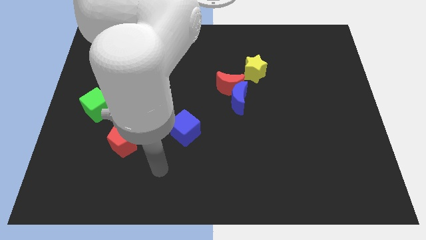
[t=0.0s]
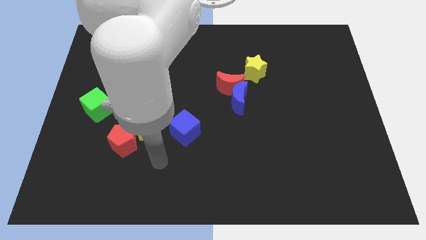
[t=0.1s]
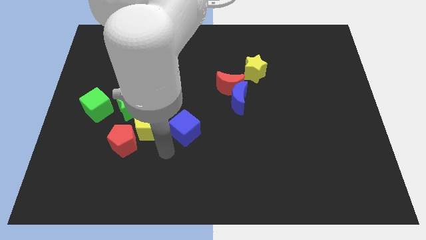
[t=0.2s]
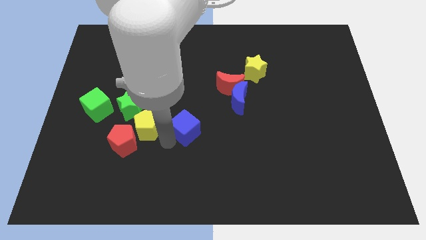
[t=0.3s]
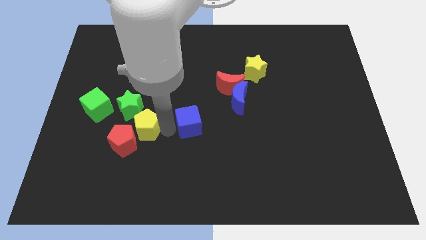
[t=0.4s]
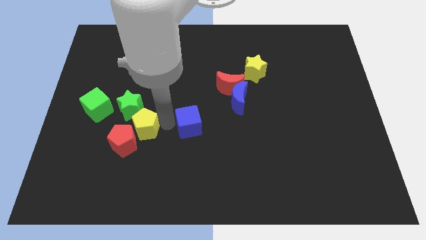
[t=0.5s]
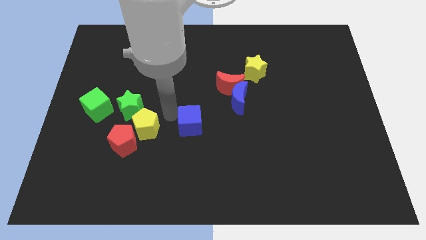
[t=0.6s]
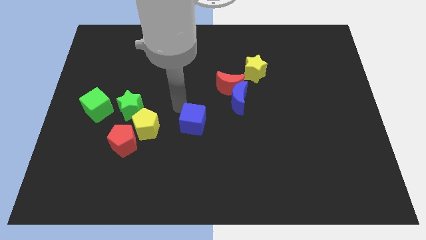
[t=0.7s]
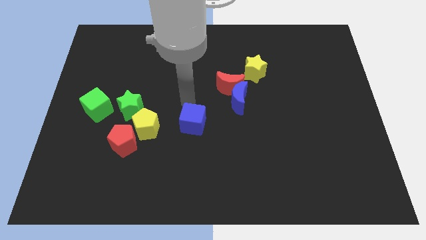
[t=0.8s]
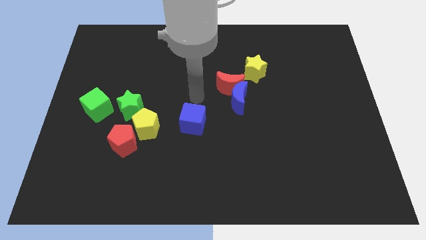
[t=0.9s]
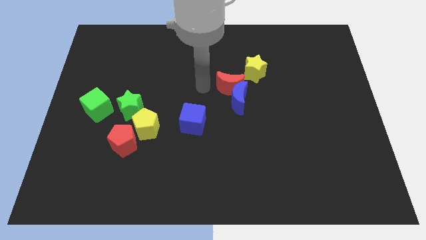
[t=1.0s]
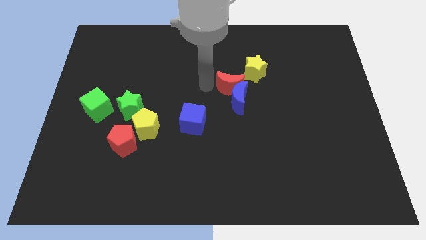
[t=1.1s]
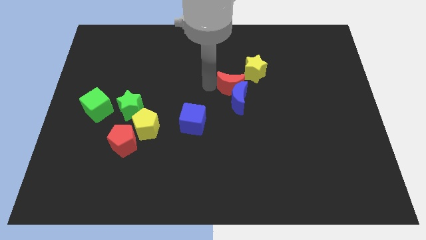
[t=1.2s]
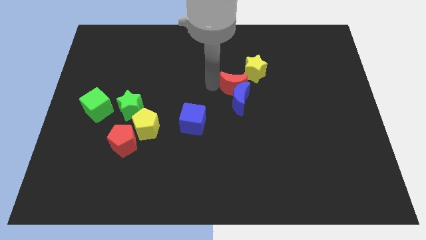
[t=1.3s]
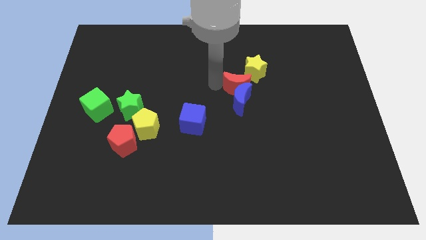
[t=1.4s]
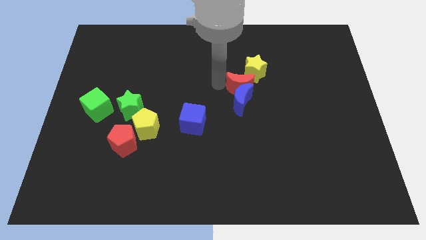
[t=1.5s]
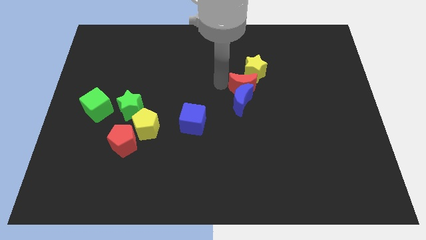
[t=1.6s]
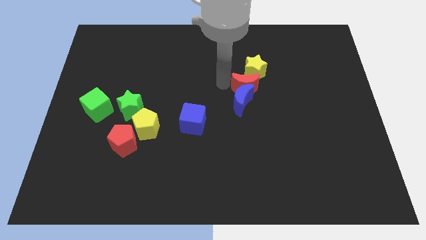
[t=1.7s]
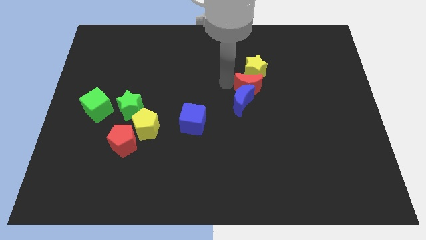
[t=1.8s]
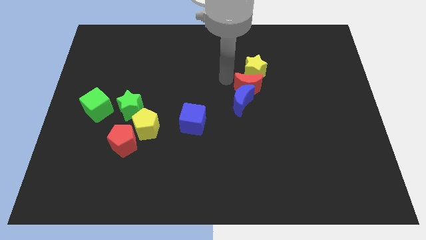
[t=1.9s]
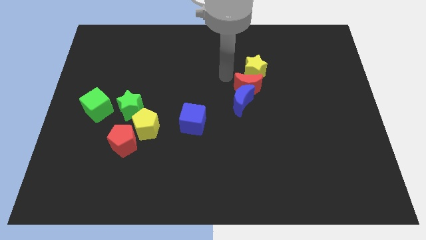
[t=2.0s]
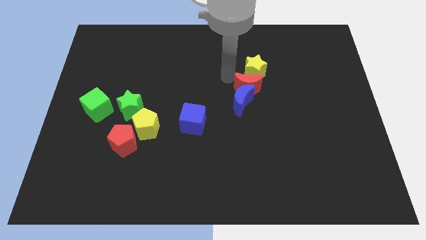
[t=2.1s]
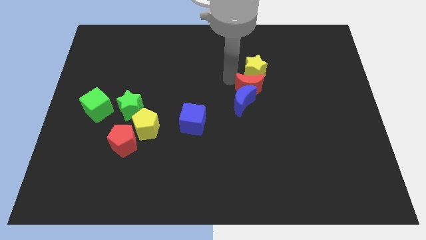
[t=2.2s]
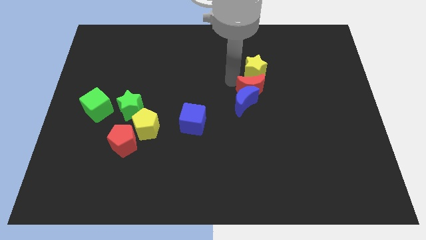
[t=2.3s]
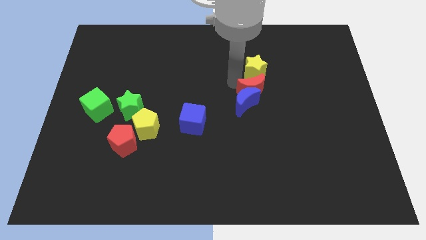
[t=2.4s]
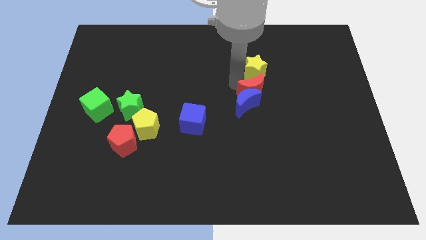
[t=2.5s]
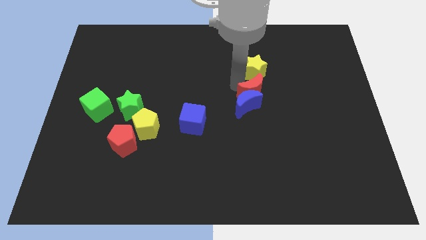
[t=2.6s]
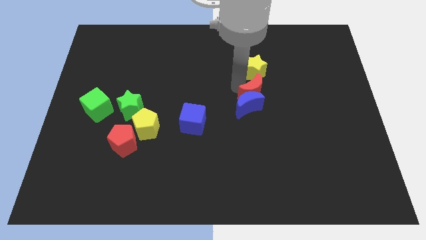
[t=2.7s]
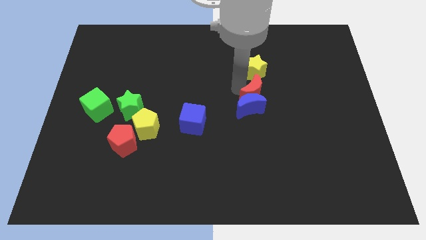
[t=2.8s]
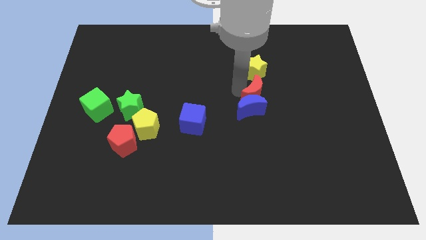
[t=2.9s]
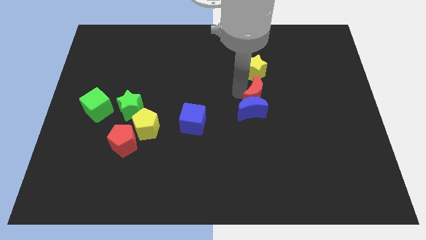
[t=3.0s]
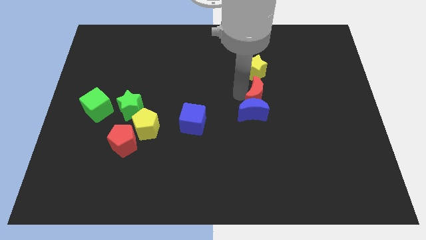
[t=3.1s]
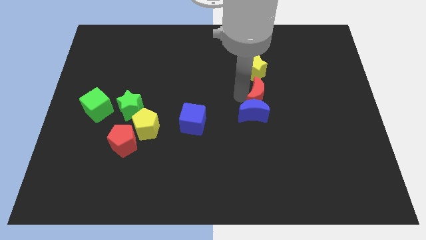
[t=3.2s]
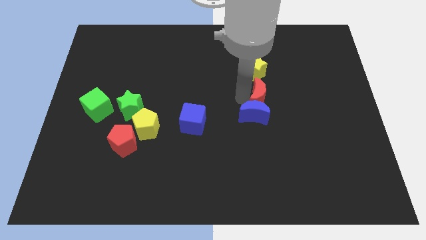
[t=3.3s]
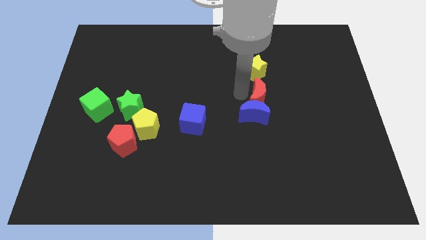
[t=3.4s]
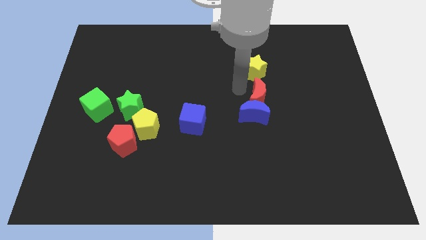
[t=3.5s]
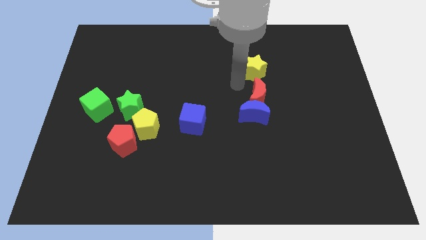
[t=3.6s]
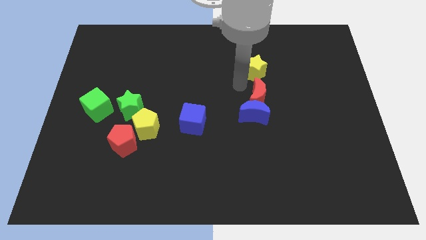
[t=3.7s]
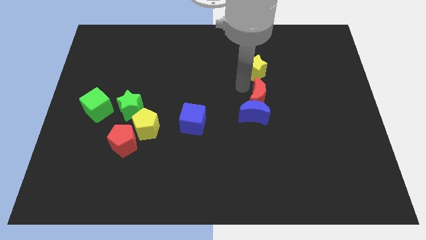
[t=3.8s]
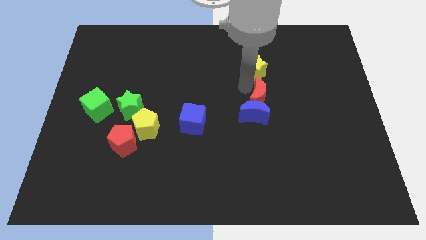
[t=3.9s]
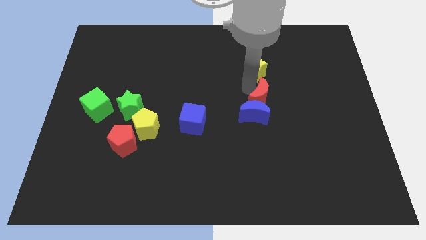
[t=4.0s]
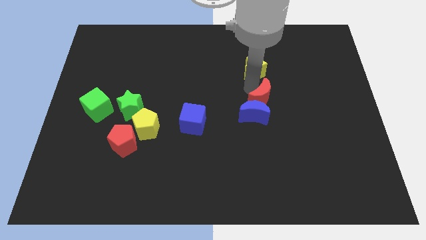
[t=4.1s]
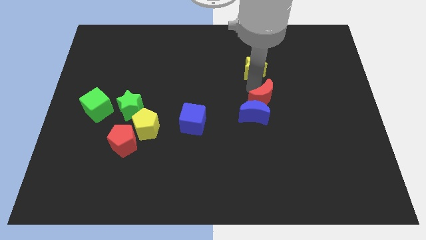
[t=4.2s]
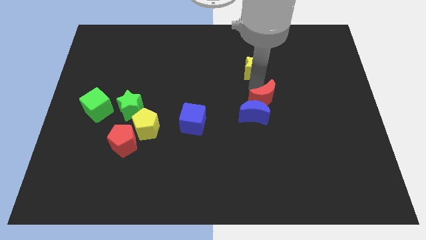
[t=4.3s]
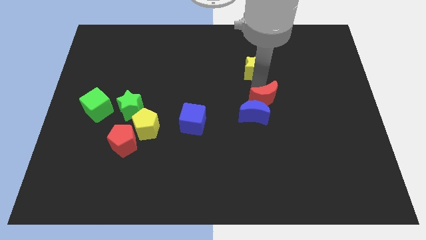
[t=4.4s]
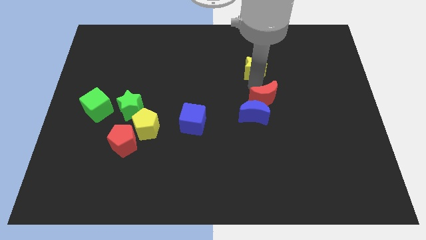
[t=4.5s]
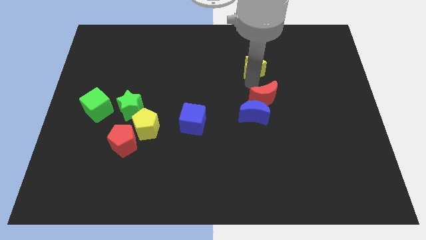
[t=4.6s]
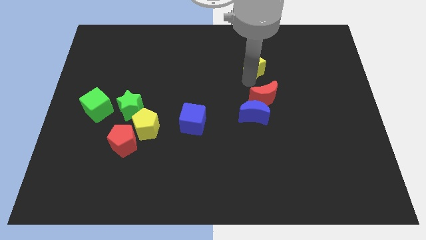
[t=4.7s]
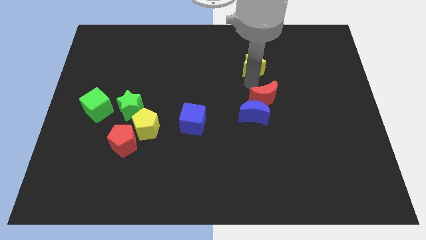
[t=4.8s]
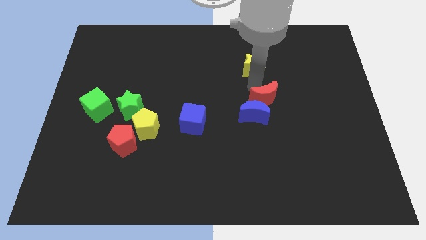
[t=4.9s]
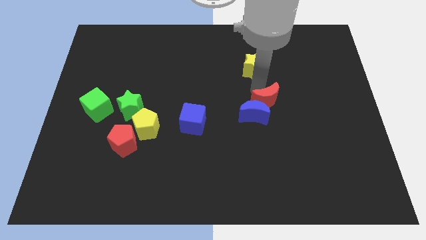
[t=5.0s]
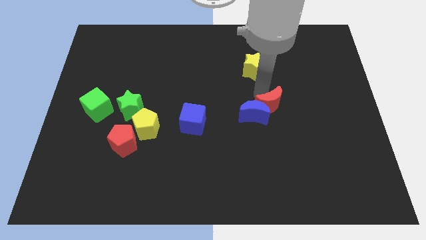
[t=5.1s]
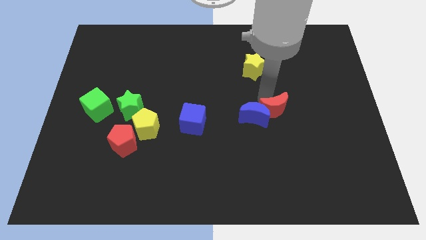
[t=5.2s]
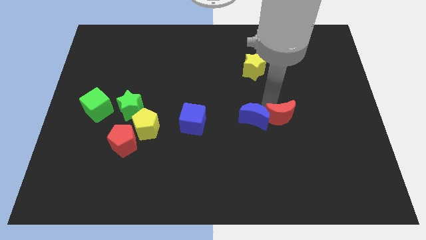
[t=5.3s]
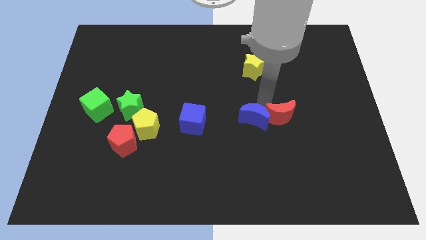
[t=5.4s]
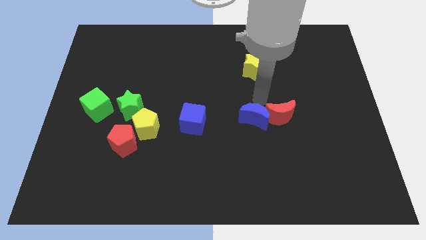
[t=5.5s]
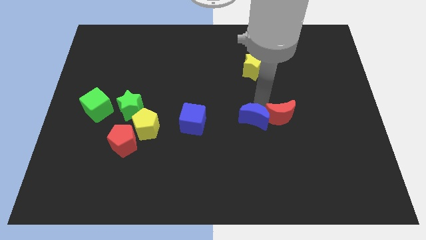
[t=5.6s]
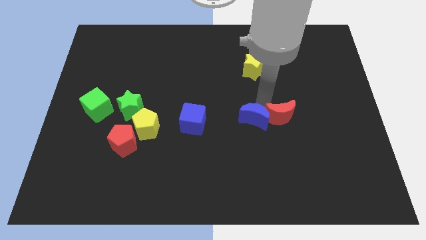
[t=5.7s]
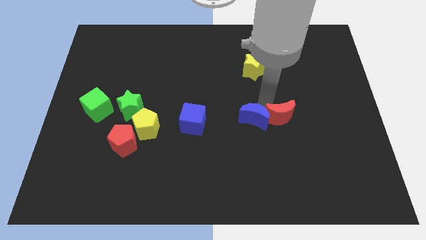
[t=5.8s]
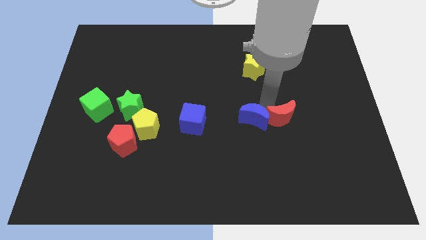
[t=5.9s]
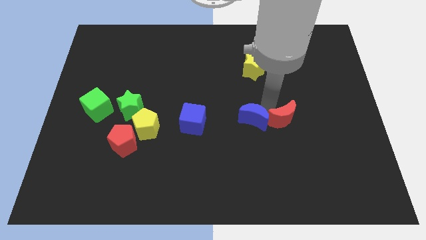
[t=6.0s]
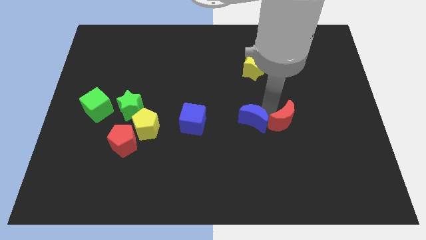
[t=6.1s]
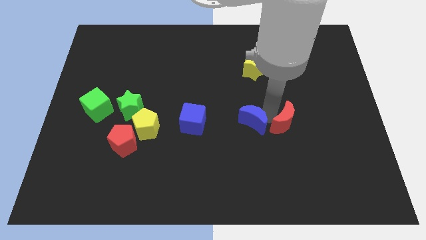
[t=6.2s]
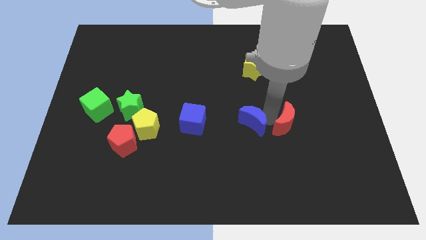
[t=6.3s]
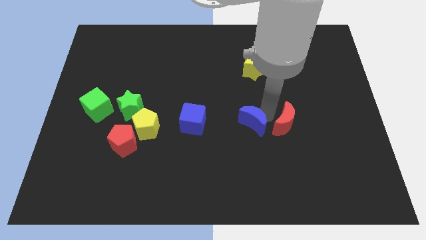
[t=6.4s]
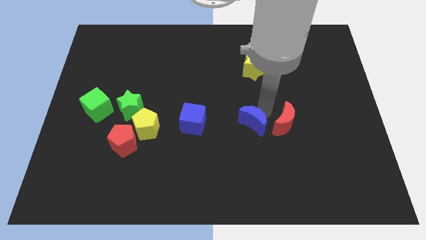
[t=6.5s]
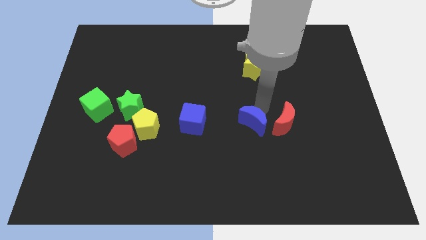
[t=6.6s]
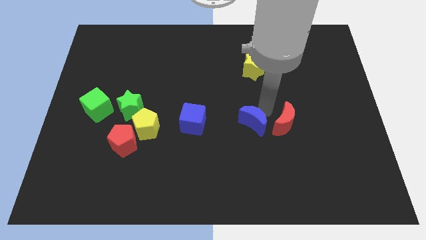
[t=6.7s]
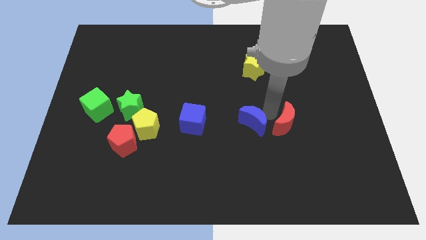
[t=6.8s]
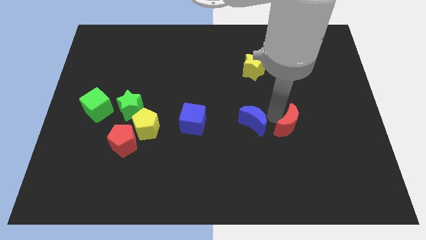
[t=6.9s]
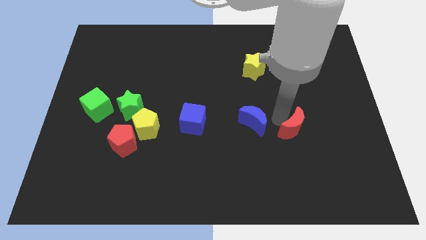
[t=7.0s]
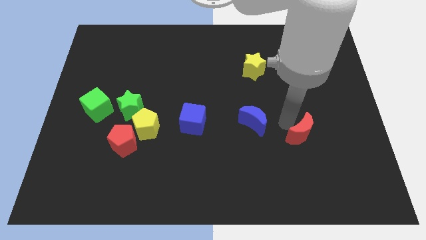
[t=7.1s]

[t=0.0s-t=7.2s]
push the red moon downwards and then to the right

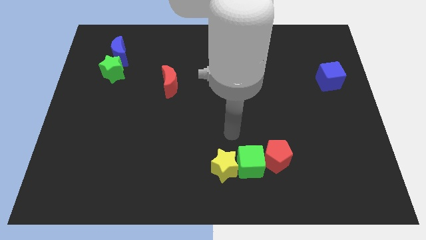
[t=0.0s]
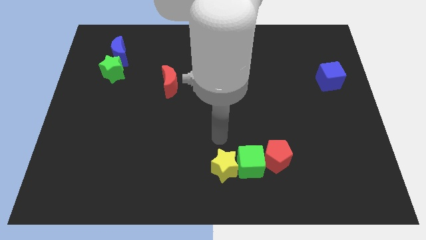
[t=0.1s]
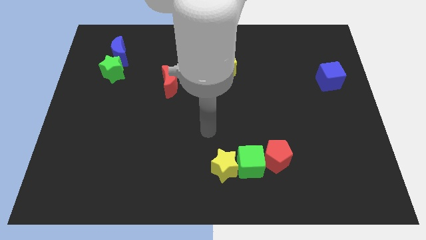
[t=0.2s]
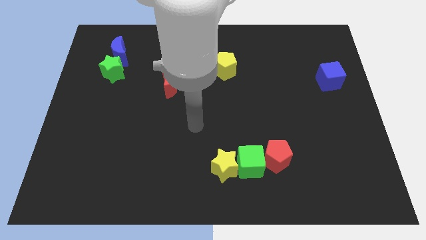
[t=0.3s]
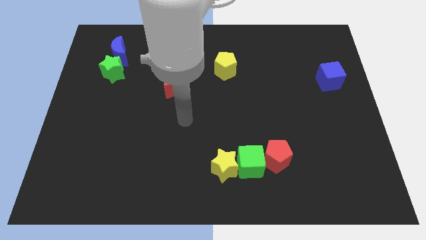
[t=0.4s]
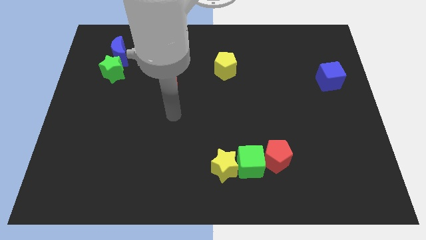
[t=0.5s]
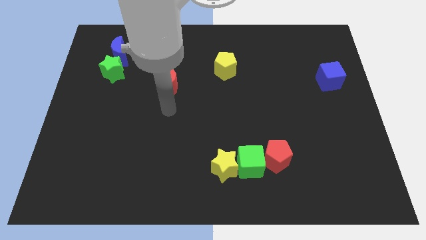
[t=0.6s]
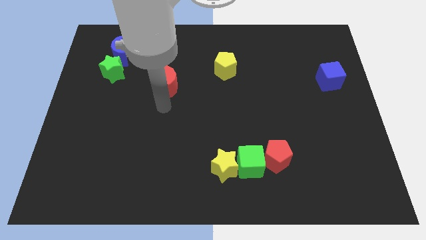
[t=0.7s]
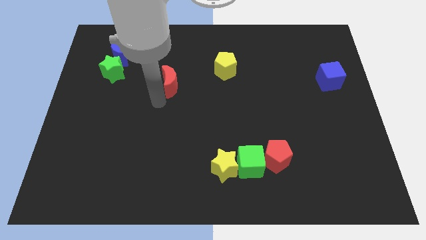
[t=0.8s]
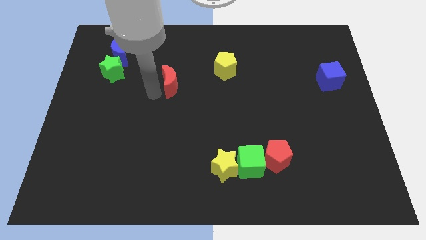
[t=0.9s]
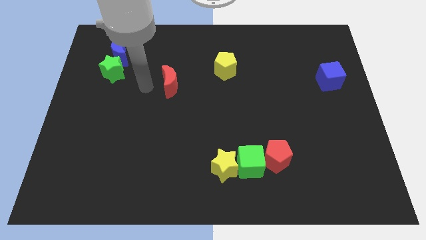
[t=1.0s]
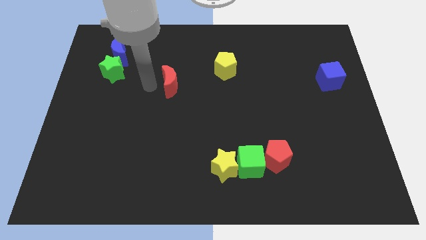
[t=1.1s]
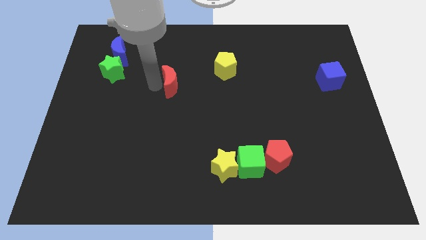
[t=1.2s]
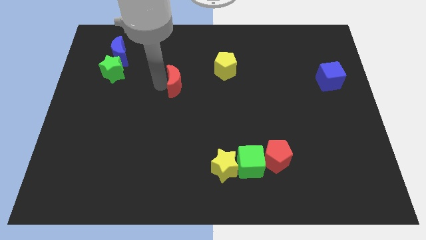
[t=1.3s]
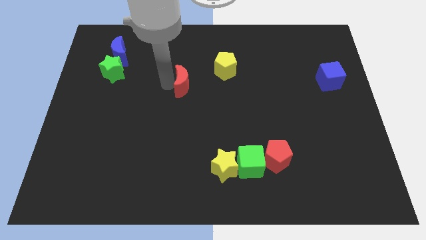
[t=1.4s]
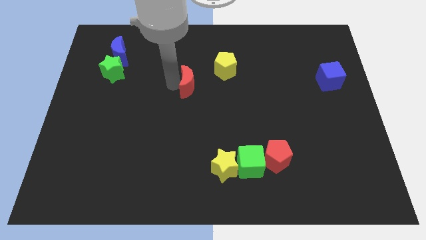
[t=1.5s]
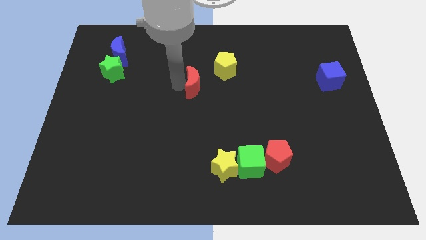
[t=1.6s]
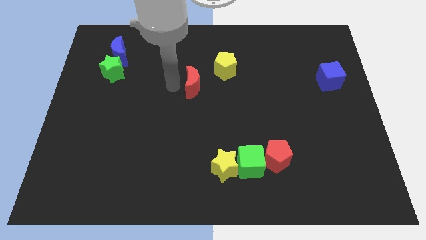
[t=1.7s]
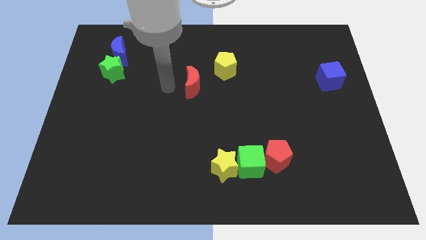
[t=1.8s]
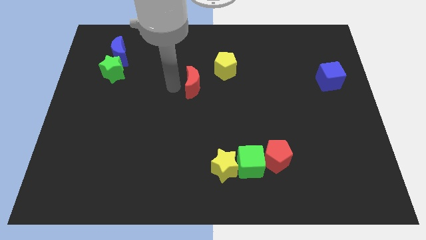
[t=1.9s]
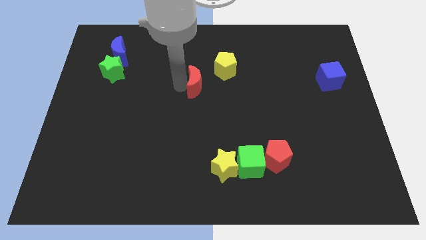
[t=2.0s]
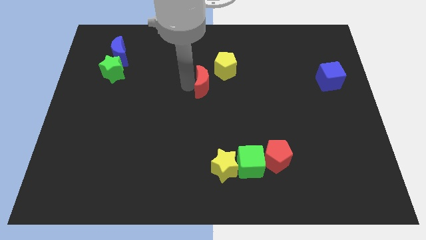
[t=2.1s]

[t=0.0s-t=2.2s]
push the red moon right a bit
